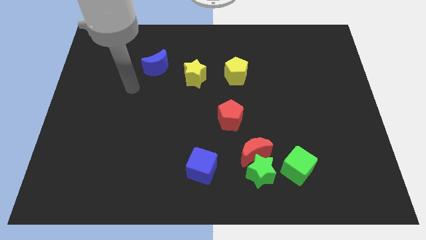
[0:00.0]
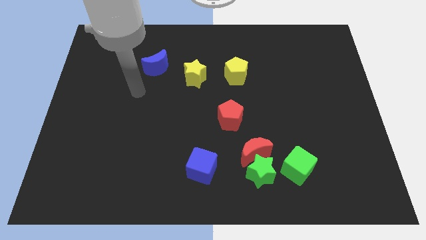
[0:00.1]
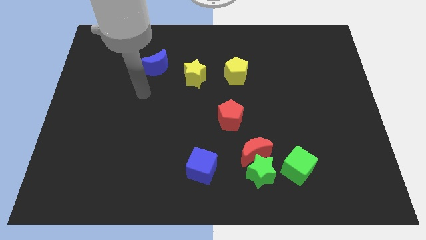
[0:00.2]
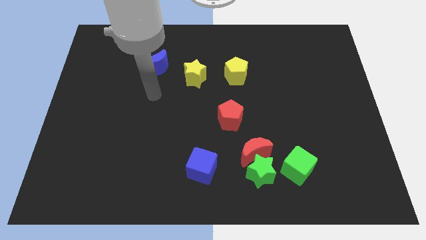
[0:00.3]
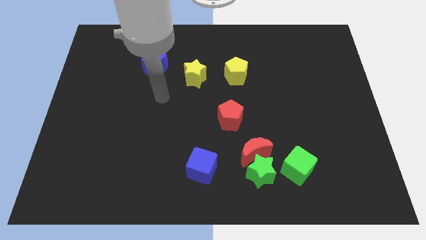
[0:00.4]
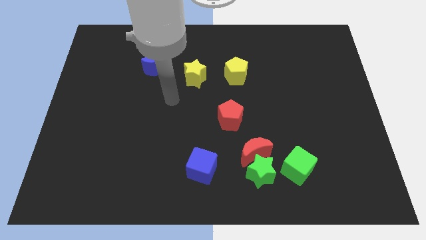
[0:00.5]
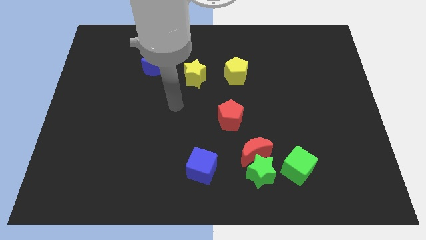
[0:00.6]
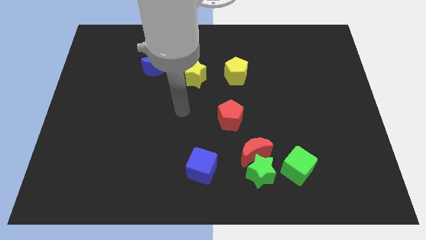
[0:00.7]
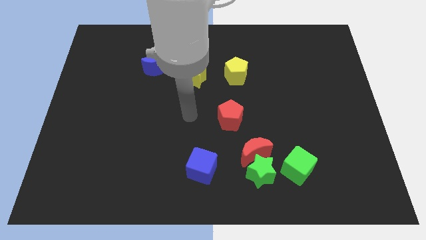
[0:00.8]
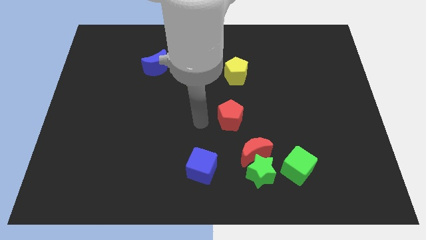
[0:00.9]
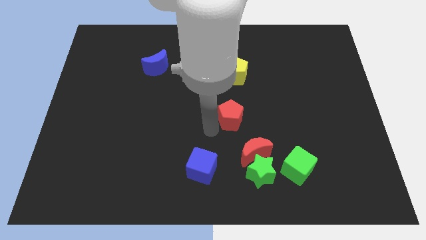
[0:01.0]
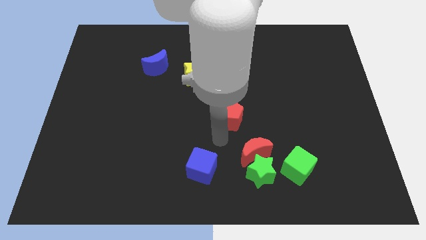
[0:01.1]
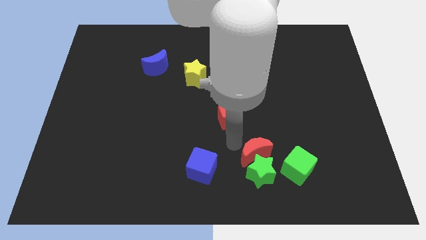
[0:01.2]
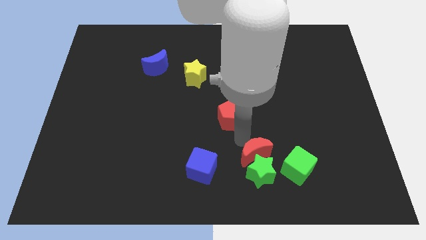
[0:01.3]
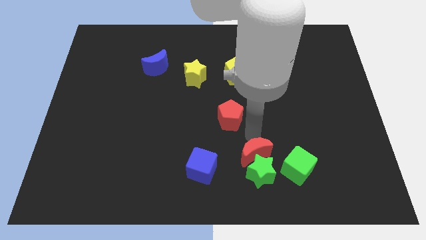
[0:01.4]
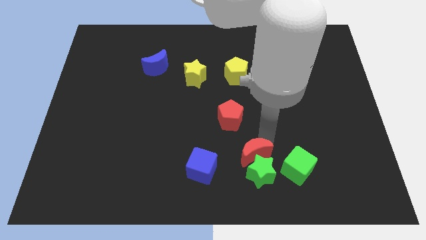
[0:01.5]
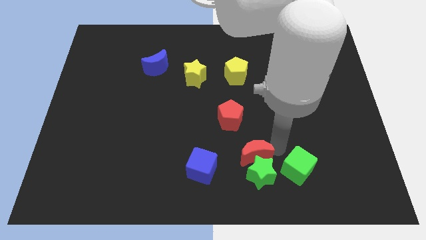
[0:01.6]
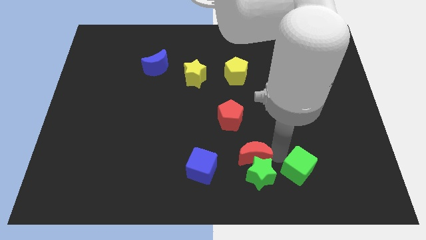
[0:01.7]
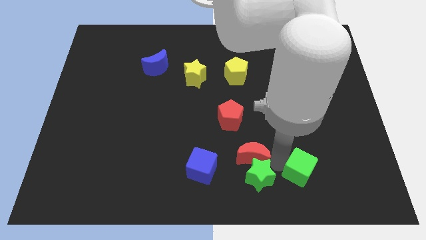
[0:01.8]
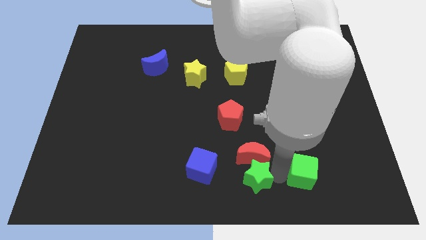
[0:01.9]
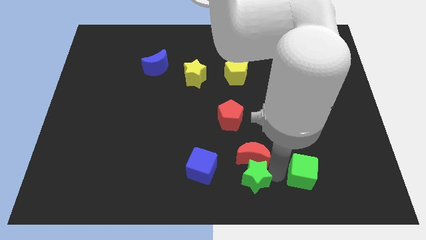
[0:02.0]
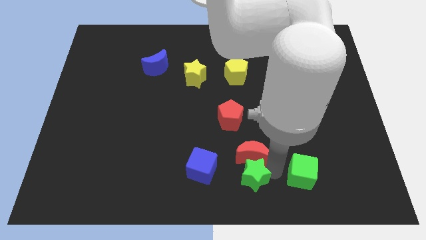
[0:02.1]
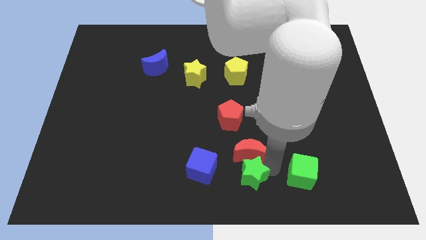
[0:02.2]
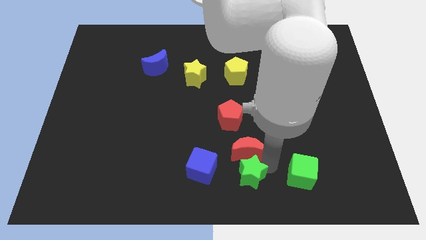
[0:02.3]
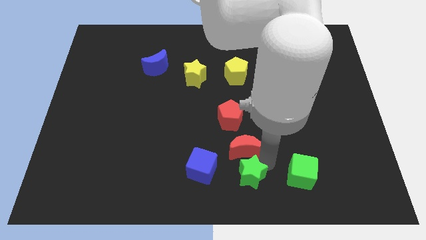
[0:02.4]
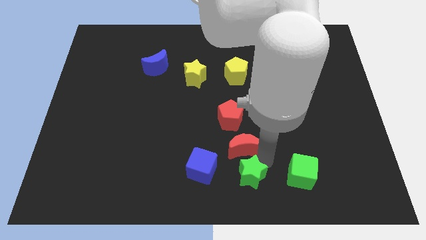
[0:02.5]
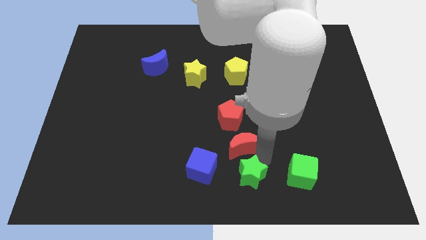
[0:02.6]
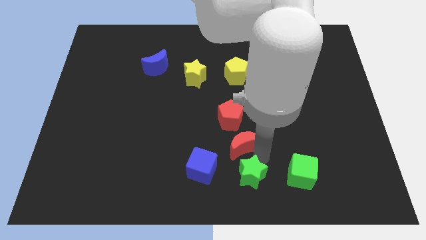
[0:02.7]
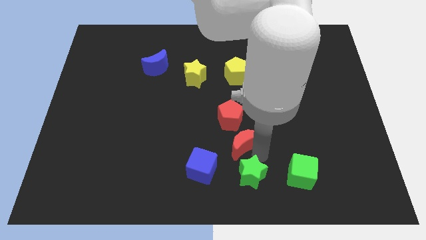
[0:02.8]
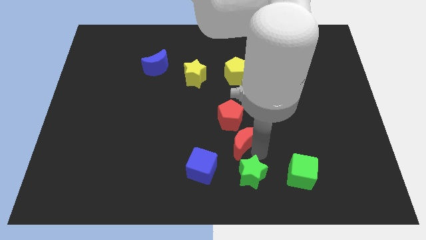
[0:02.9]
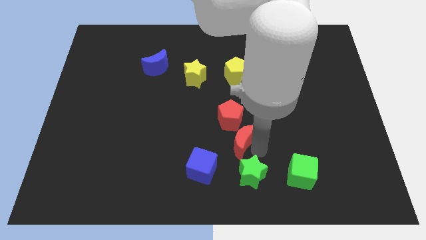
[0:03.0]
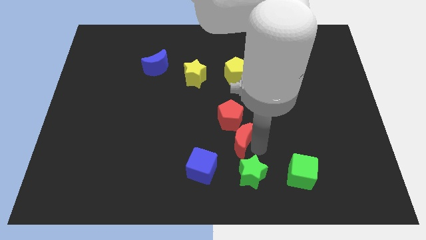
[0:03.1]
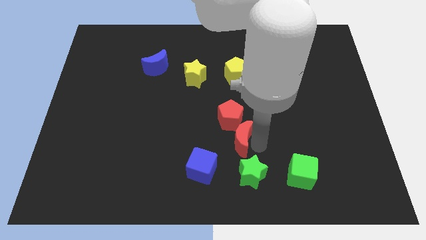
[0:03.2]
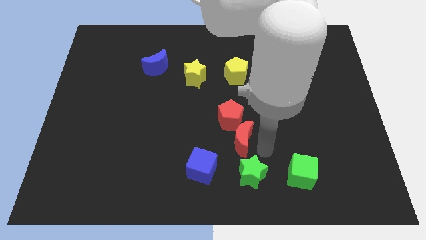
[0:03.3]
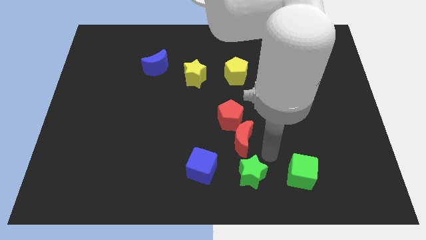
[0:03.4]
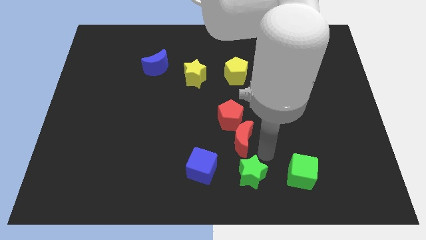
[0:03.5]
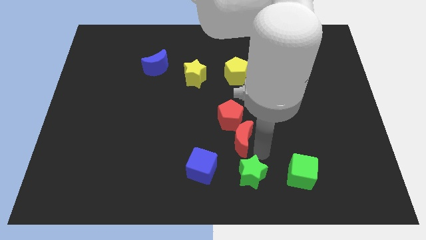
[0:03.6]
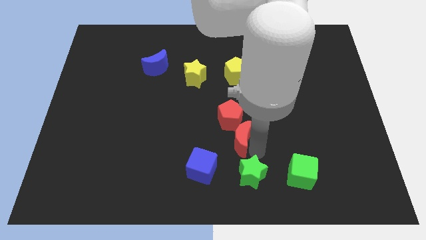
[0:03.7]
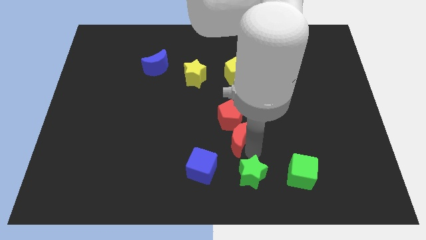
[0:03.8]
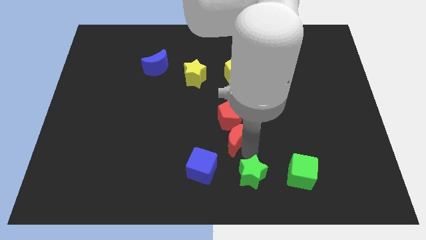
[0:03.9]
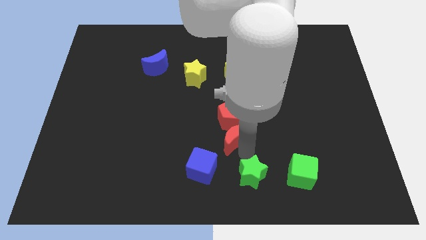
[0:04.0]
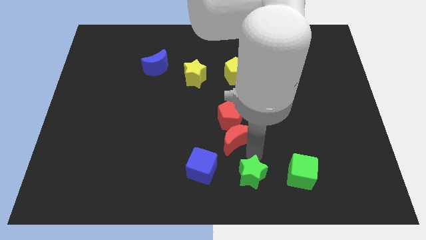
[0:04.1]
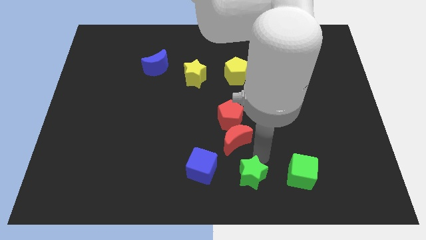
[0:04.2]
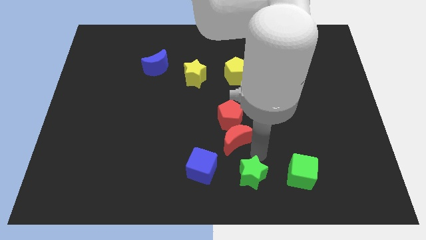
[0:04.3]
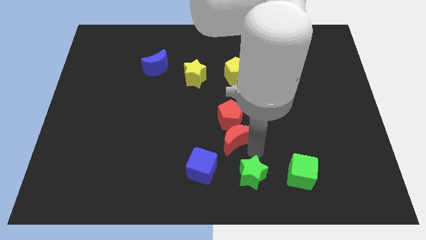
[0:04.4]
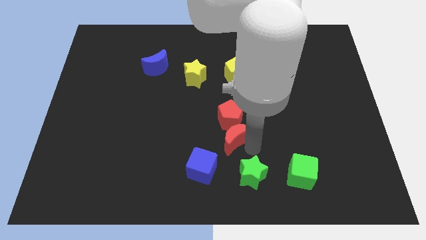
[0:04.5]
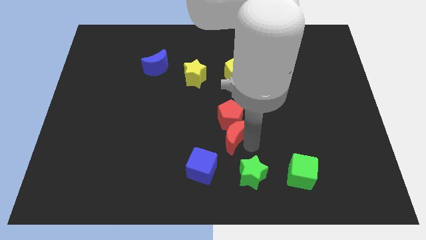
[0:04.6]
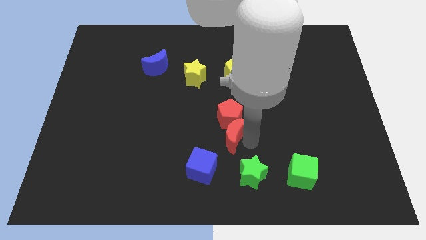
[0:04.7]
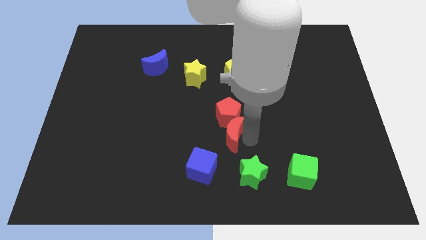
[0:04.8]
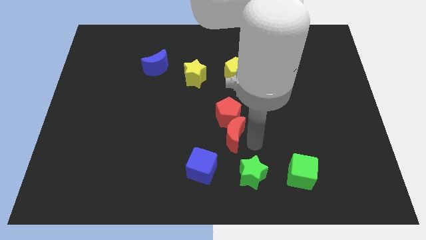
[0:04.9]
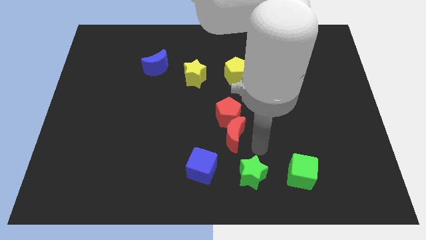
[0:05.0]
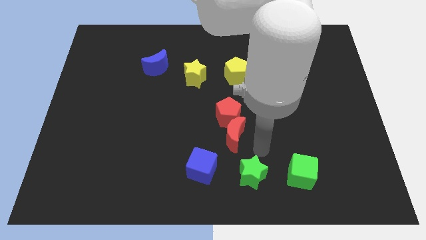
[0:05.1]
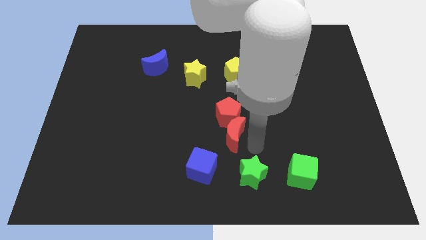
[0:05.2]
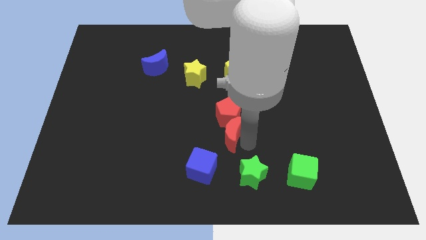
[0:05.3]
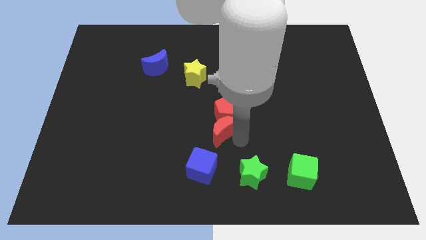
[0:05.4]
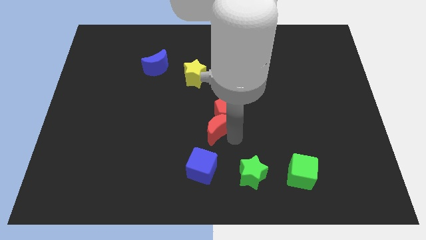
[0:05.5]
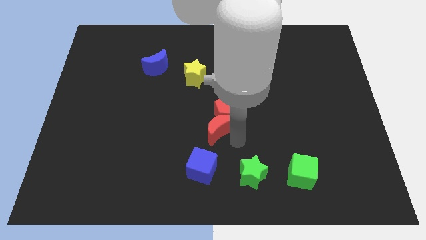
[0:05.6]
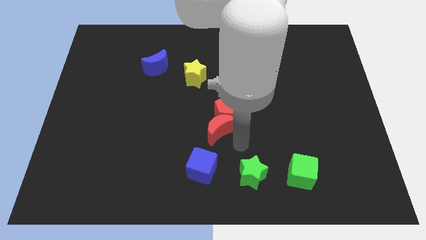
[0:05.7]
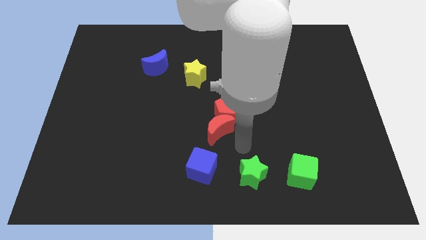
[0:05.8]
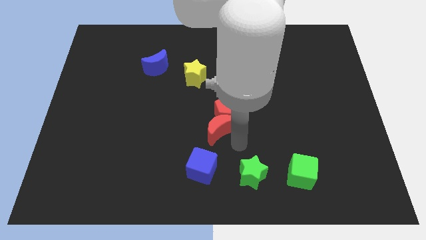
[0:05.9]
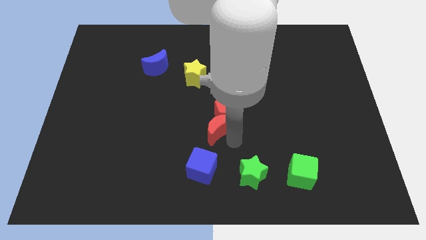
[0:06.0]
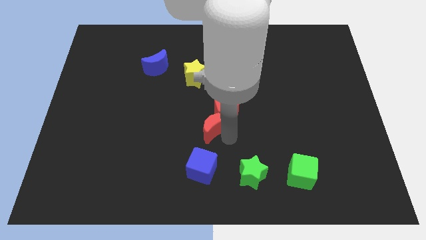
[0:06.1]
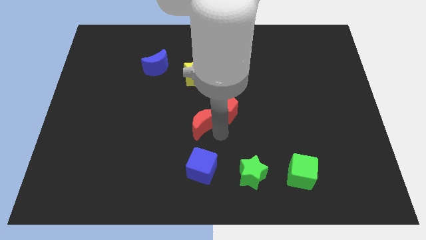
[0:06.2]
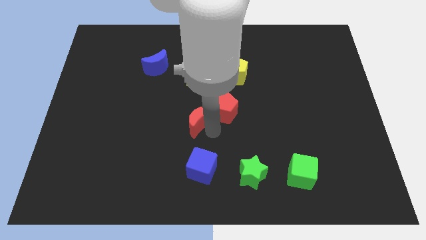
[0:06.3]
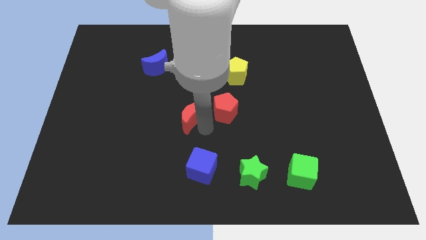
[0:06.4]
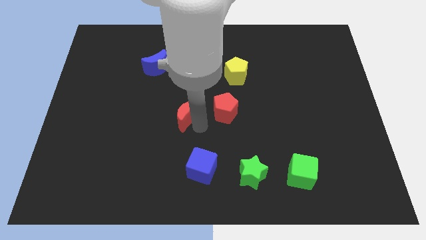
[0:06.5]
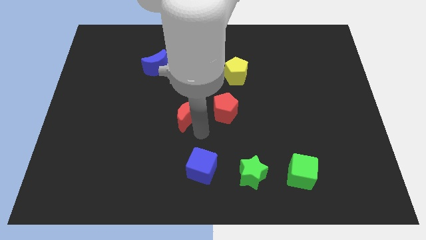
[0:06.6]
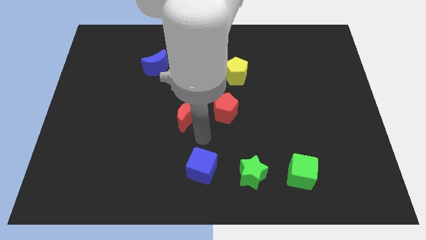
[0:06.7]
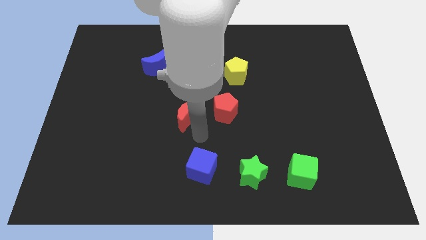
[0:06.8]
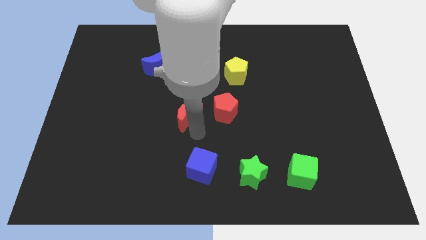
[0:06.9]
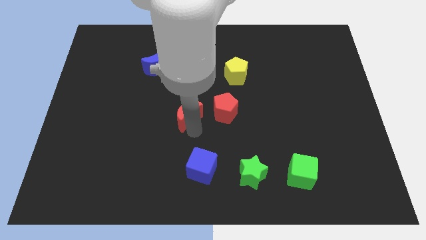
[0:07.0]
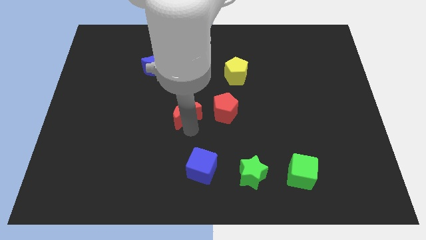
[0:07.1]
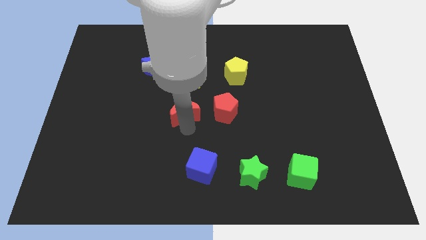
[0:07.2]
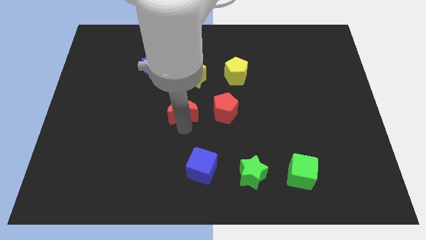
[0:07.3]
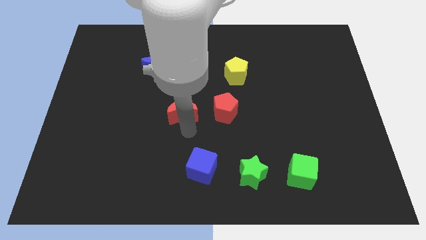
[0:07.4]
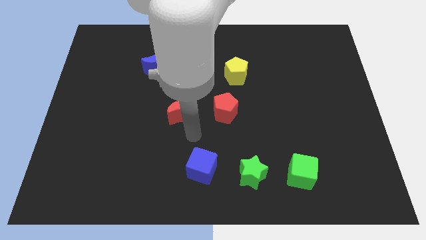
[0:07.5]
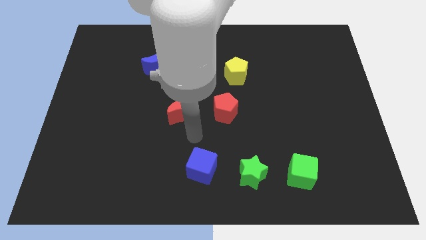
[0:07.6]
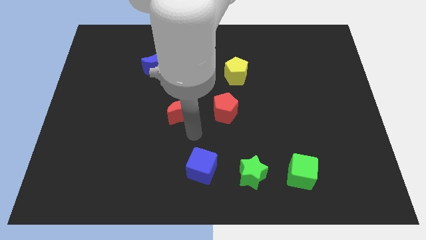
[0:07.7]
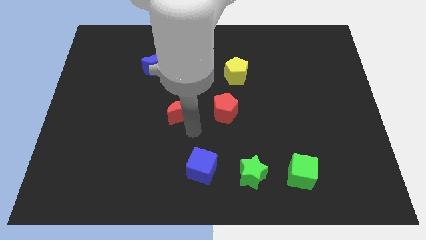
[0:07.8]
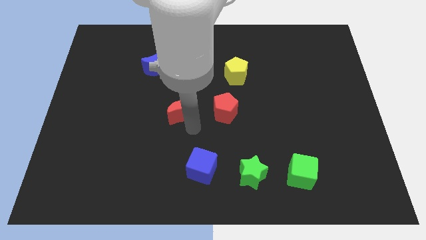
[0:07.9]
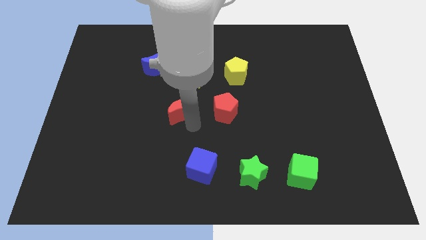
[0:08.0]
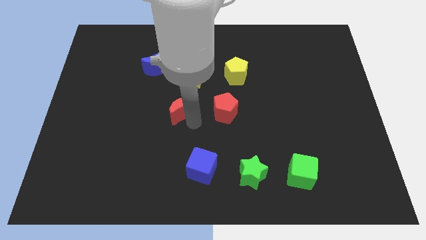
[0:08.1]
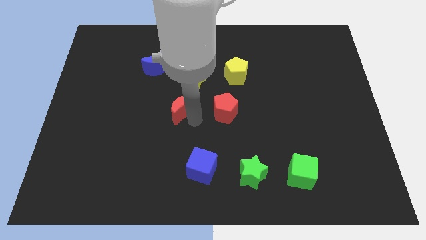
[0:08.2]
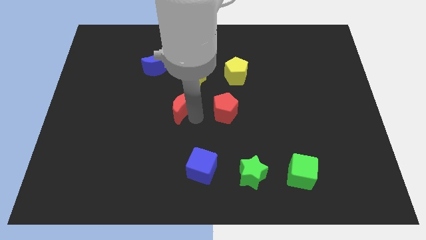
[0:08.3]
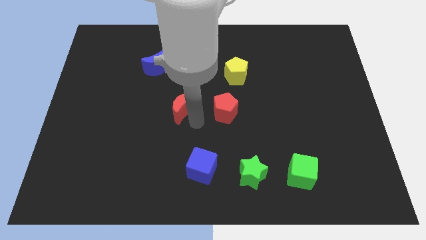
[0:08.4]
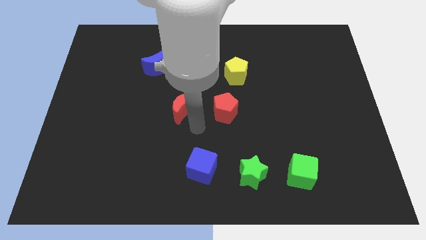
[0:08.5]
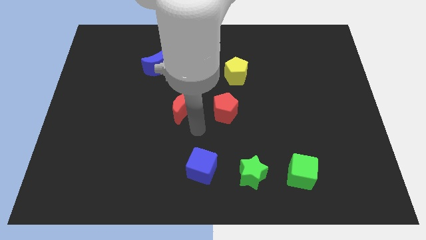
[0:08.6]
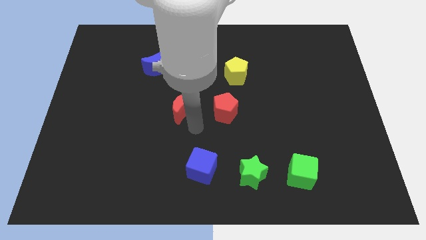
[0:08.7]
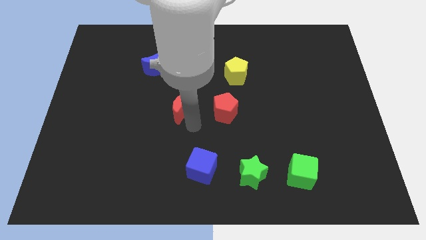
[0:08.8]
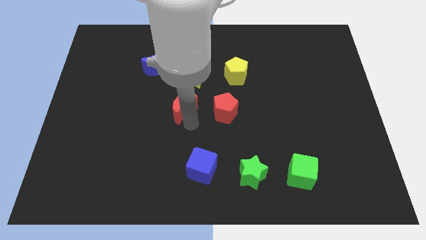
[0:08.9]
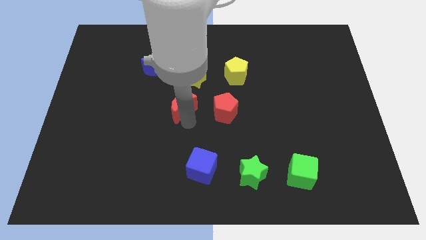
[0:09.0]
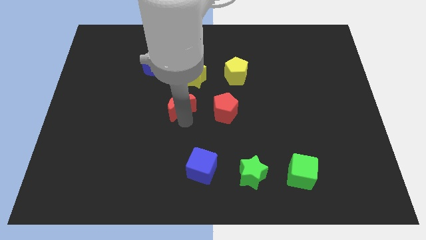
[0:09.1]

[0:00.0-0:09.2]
put the red moon to the bottom left of the yellow star
